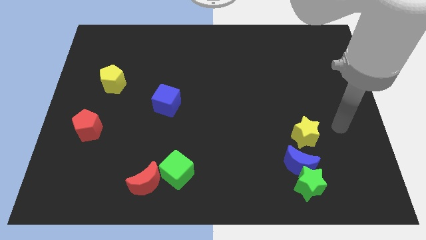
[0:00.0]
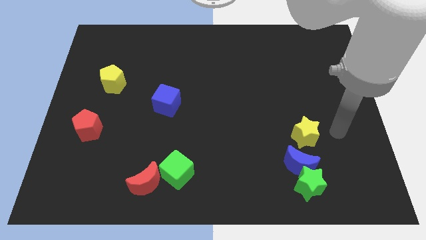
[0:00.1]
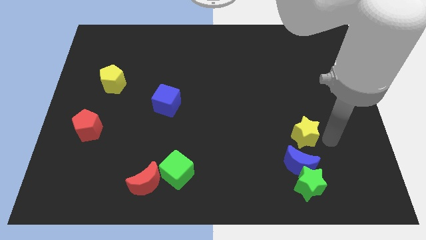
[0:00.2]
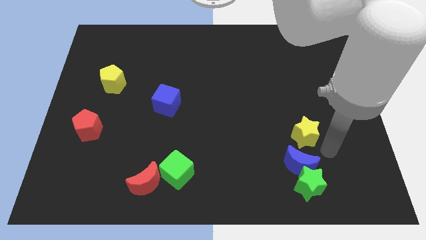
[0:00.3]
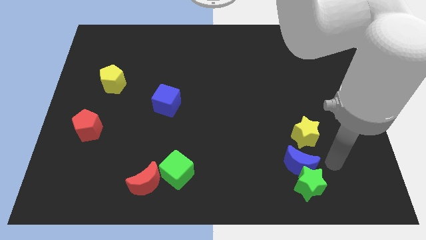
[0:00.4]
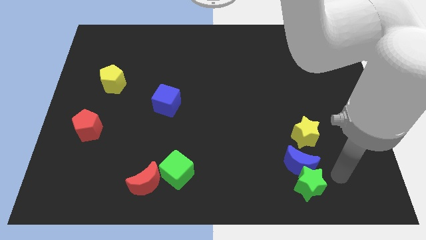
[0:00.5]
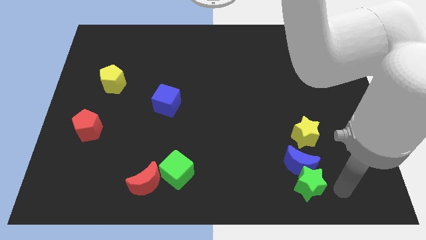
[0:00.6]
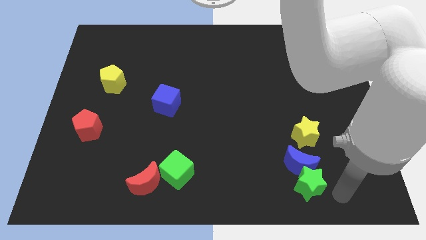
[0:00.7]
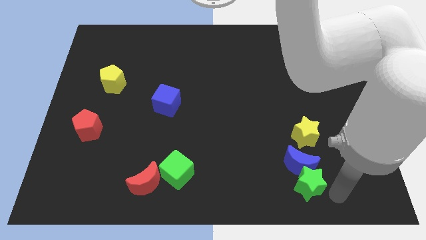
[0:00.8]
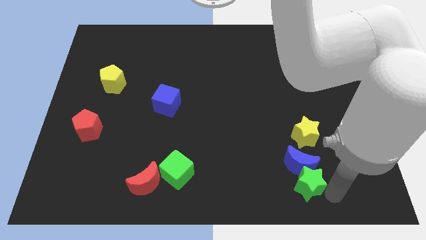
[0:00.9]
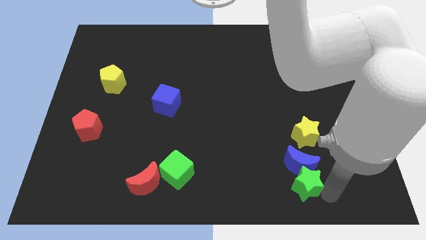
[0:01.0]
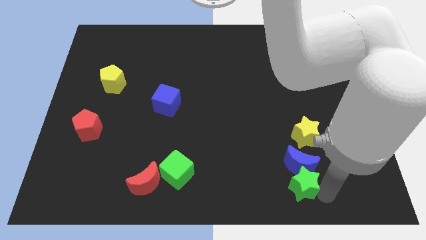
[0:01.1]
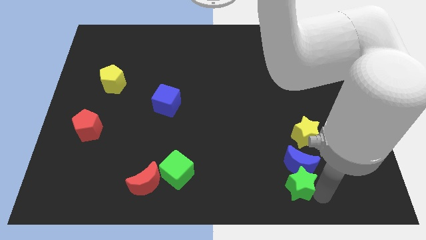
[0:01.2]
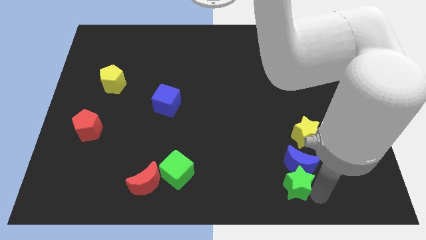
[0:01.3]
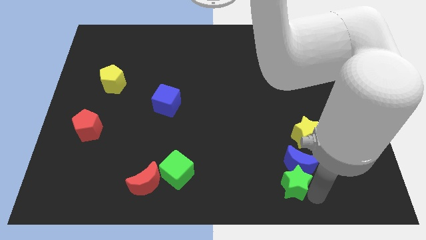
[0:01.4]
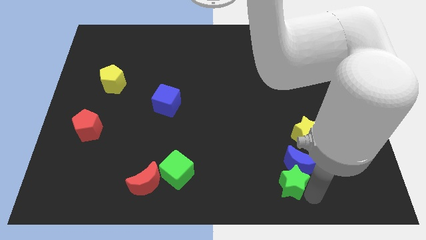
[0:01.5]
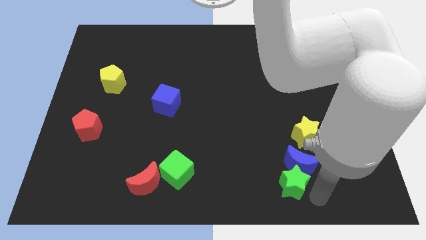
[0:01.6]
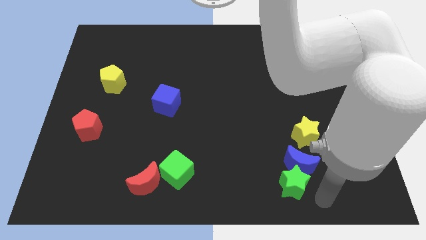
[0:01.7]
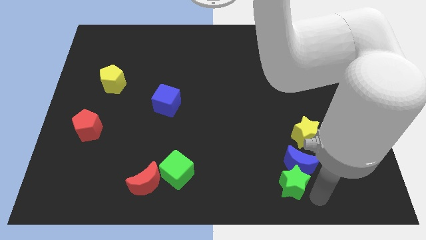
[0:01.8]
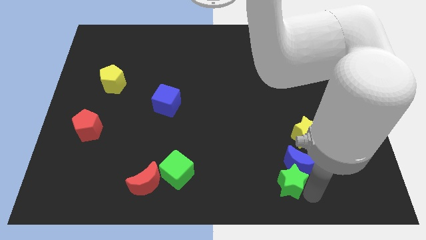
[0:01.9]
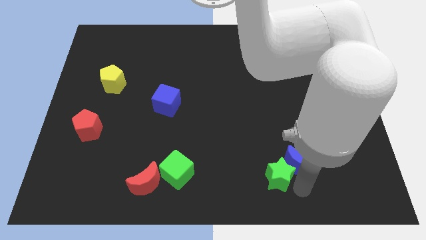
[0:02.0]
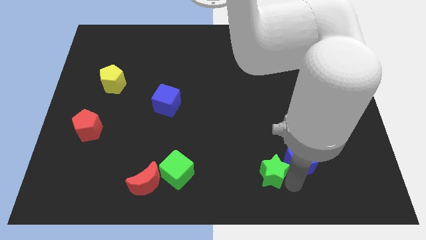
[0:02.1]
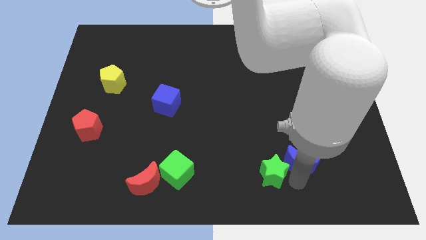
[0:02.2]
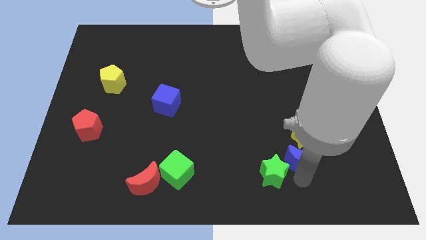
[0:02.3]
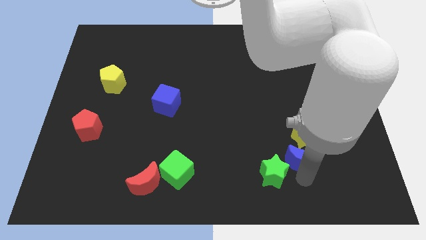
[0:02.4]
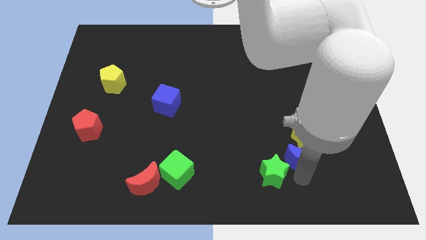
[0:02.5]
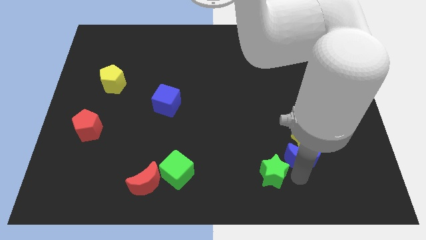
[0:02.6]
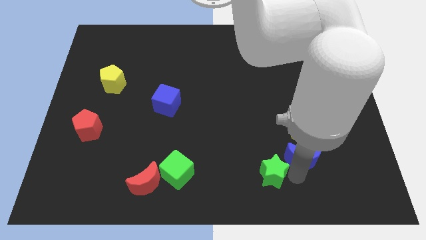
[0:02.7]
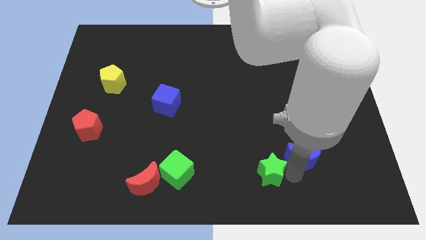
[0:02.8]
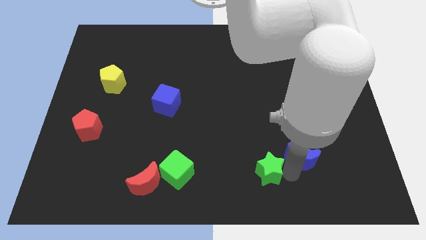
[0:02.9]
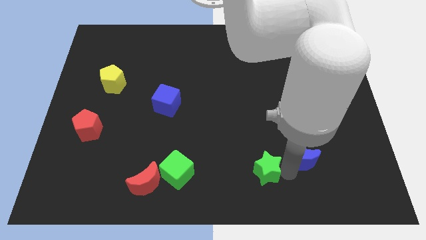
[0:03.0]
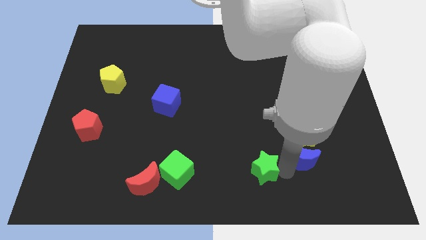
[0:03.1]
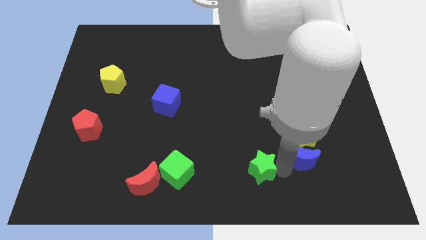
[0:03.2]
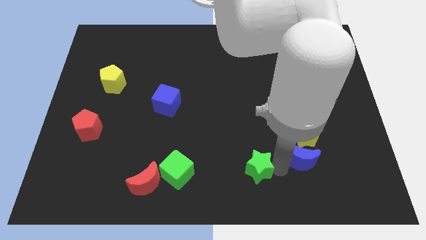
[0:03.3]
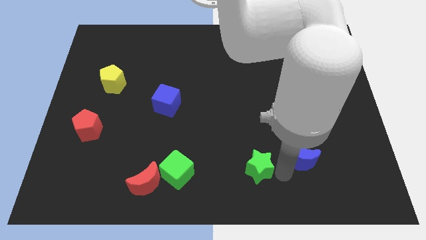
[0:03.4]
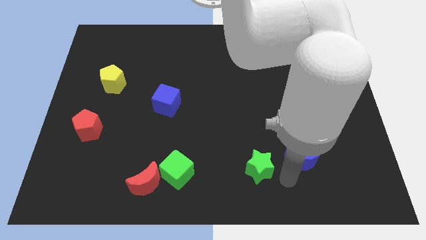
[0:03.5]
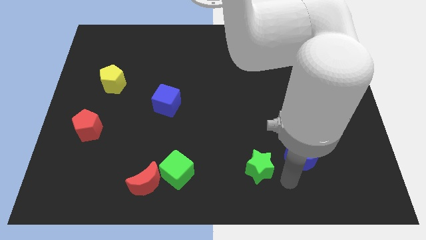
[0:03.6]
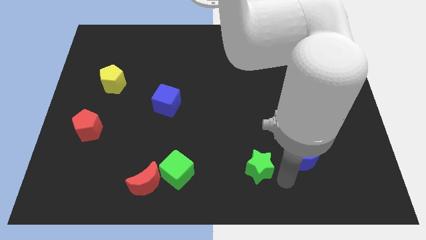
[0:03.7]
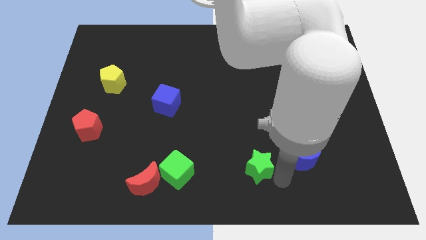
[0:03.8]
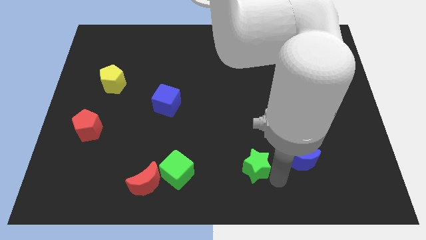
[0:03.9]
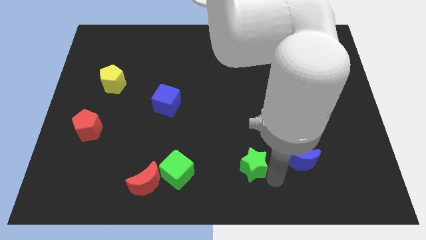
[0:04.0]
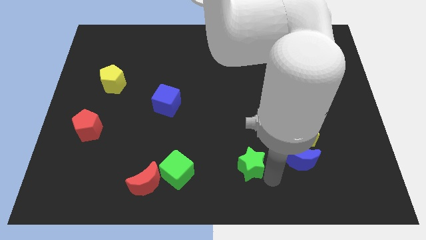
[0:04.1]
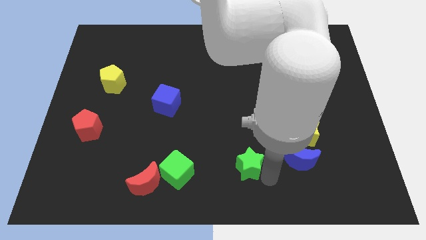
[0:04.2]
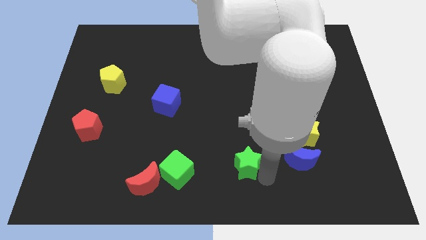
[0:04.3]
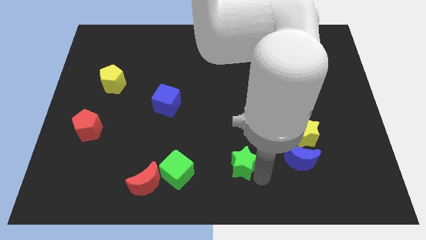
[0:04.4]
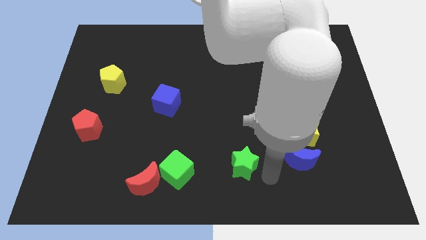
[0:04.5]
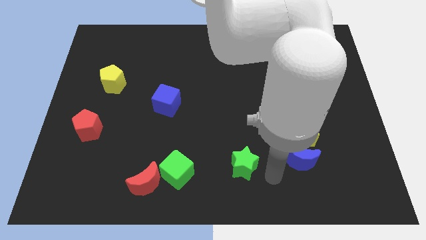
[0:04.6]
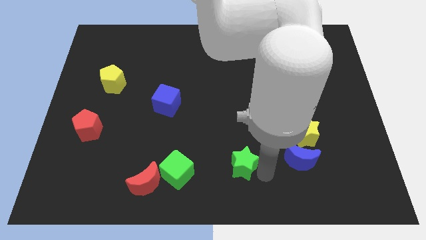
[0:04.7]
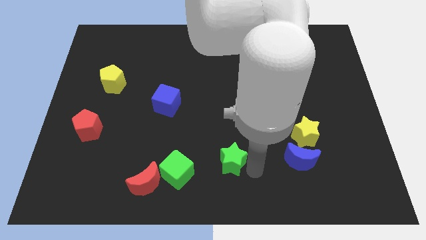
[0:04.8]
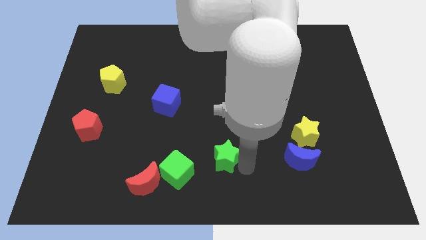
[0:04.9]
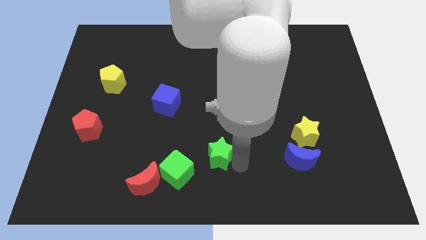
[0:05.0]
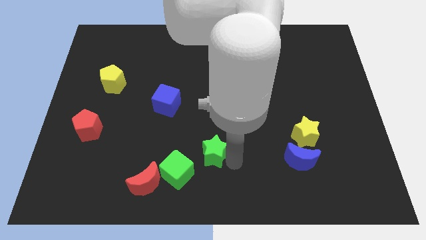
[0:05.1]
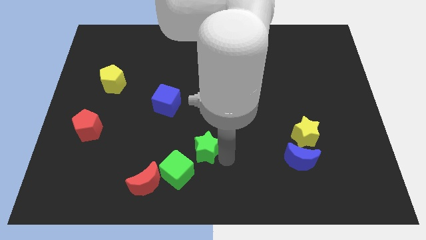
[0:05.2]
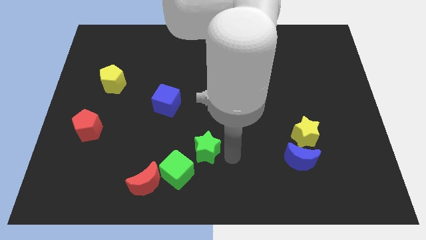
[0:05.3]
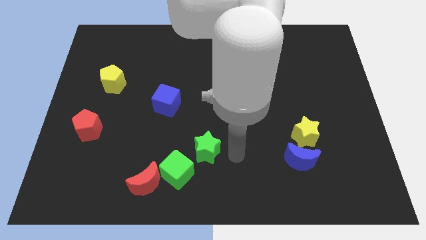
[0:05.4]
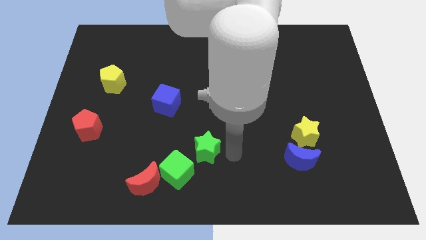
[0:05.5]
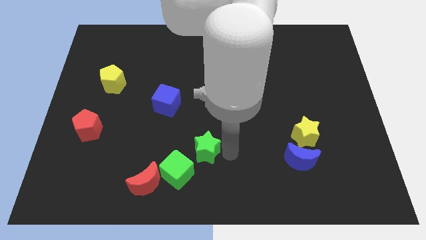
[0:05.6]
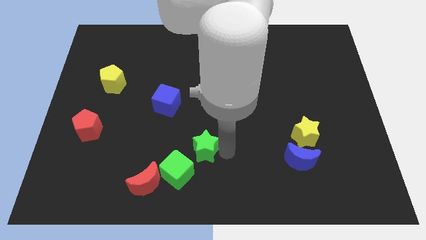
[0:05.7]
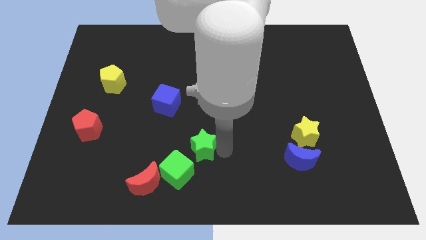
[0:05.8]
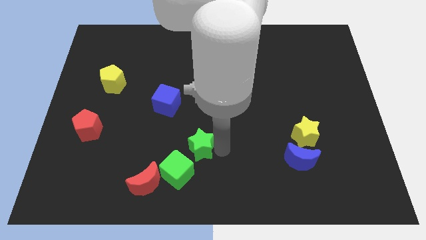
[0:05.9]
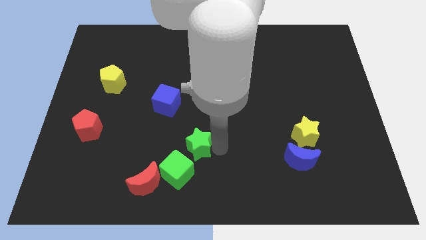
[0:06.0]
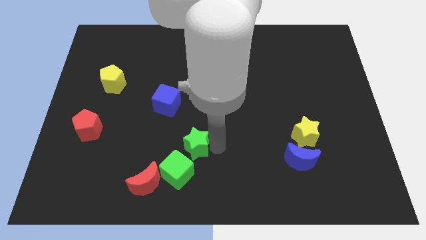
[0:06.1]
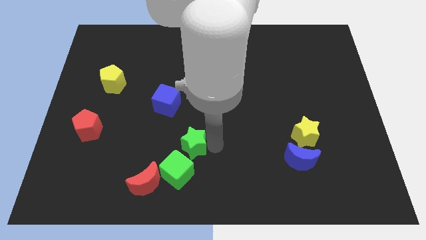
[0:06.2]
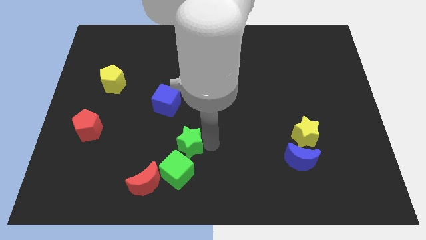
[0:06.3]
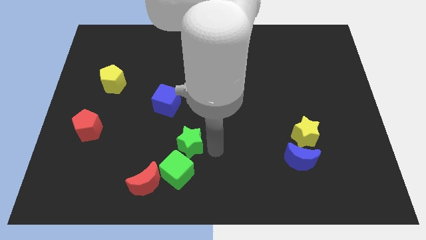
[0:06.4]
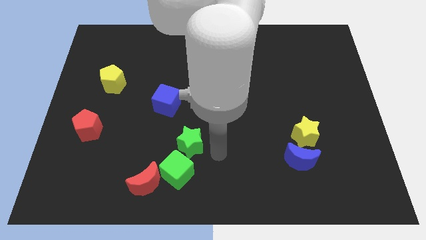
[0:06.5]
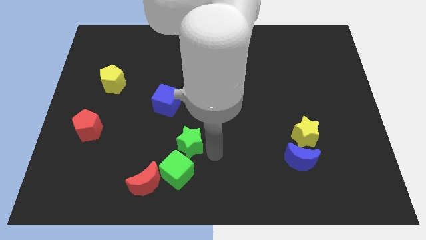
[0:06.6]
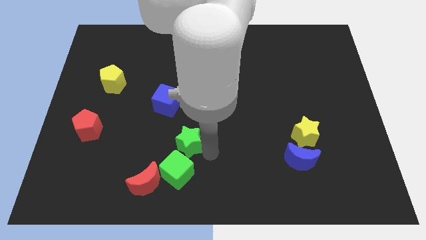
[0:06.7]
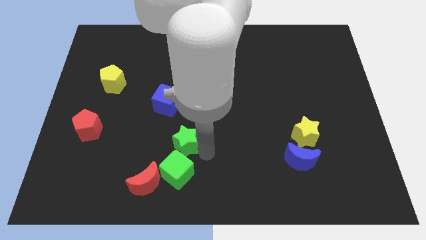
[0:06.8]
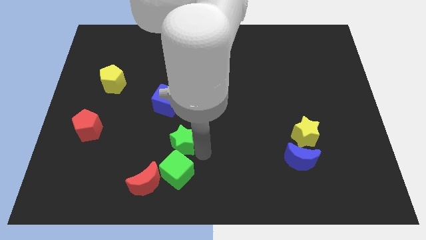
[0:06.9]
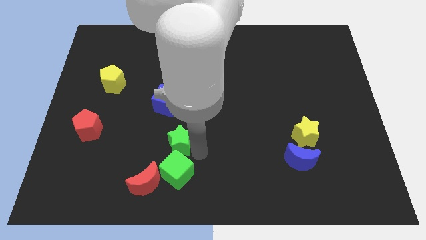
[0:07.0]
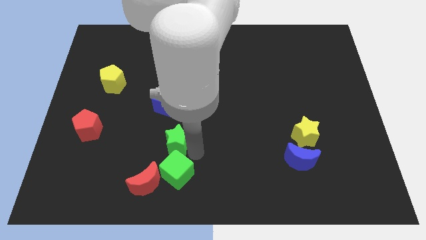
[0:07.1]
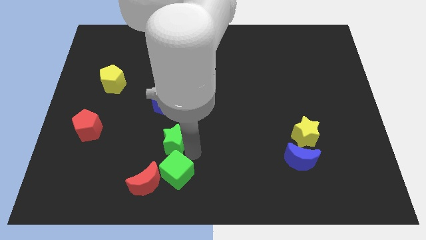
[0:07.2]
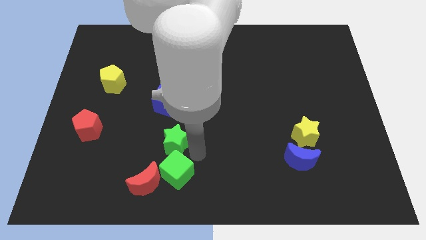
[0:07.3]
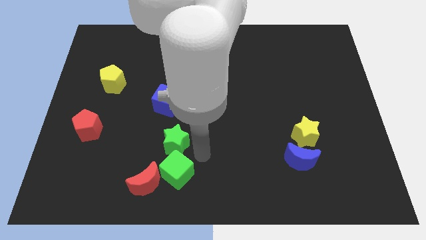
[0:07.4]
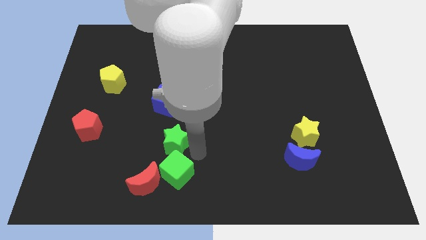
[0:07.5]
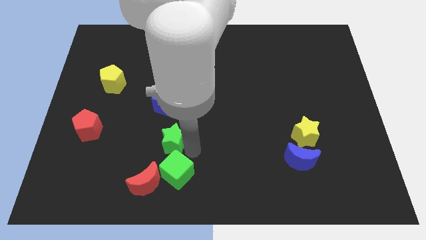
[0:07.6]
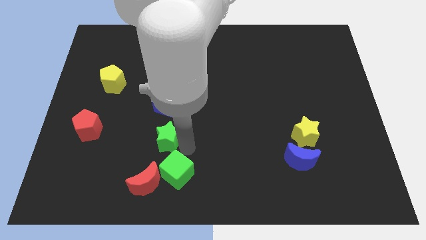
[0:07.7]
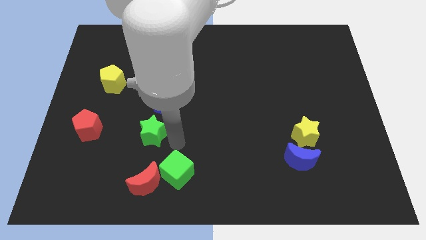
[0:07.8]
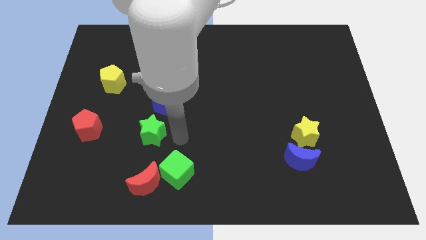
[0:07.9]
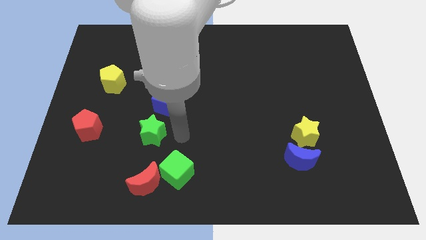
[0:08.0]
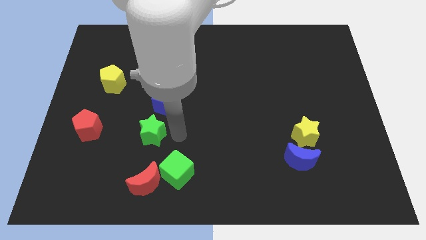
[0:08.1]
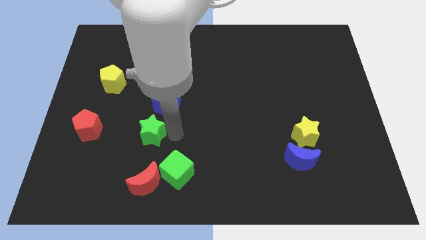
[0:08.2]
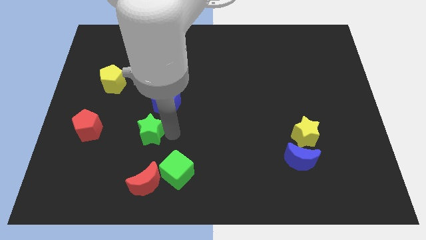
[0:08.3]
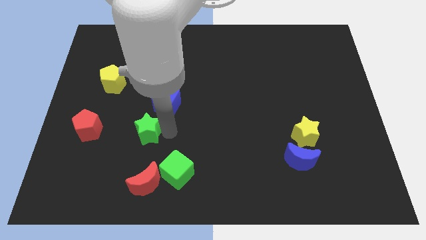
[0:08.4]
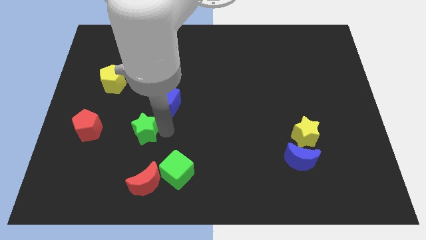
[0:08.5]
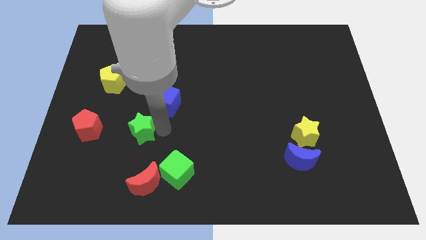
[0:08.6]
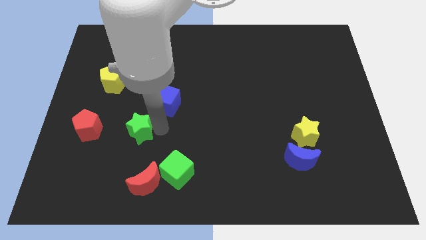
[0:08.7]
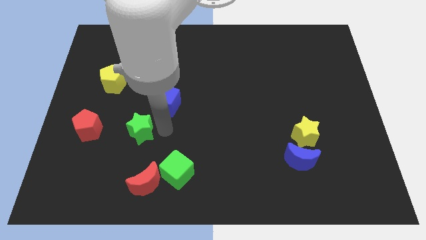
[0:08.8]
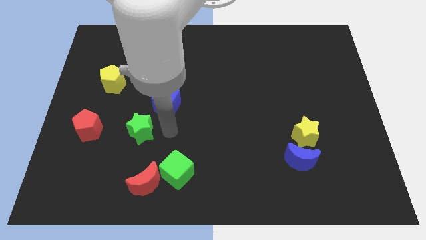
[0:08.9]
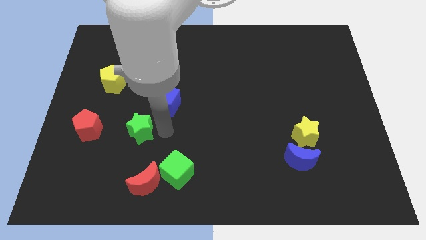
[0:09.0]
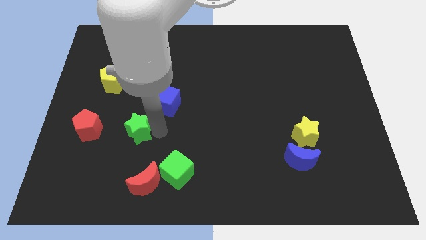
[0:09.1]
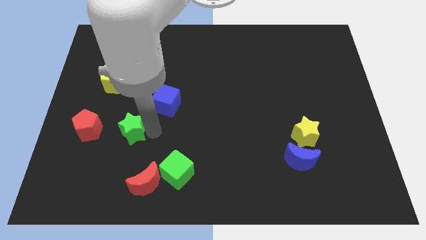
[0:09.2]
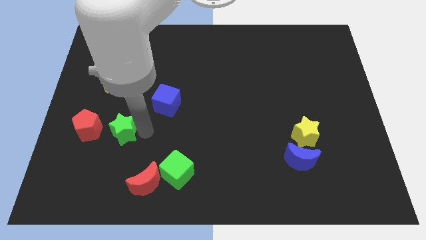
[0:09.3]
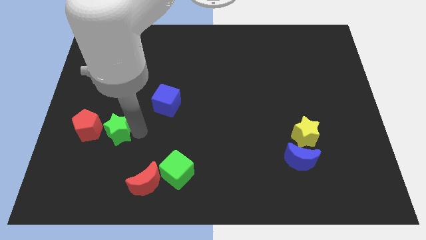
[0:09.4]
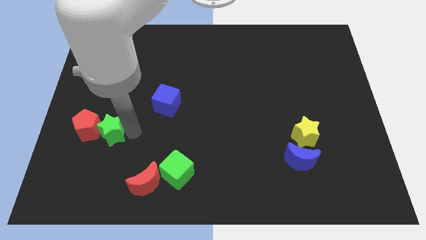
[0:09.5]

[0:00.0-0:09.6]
slide the green star next to the red pentagon
